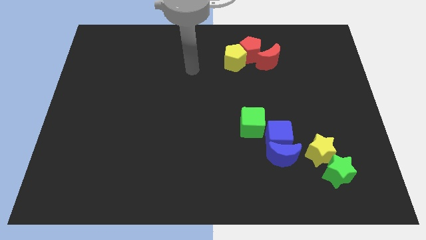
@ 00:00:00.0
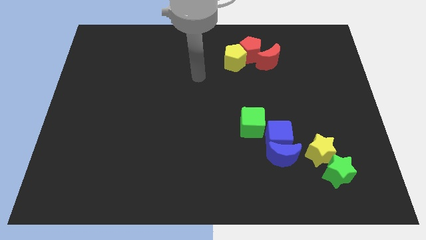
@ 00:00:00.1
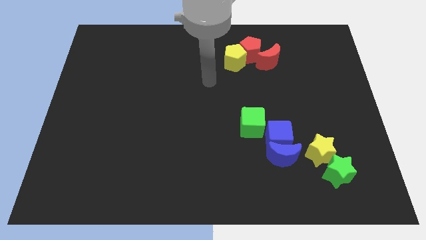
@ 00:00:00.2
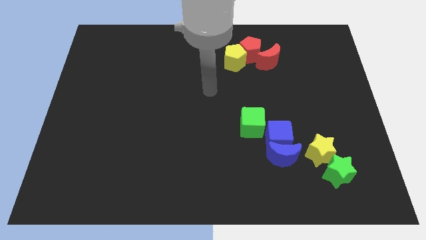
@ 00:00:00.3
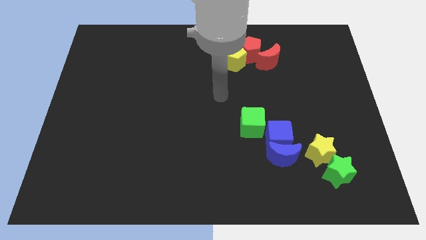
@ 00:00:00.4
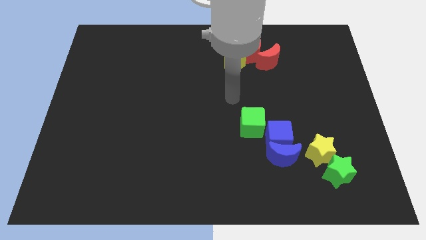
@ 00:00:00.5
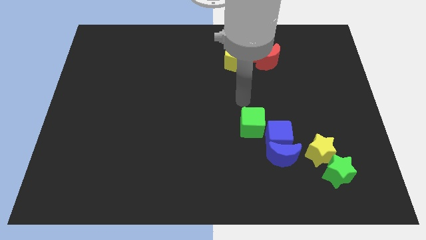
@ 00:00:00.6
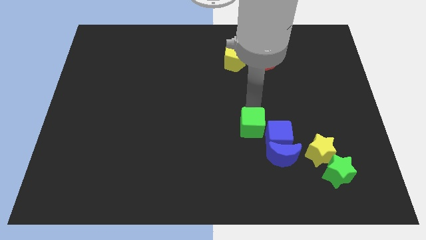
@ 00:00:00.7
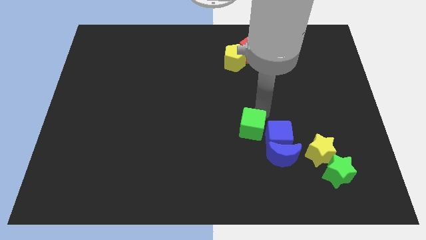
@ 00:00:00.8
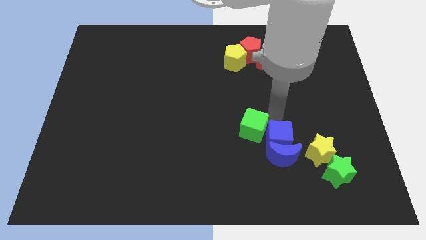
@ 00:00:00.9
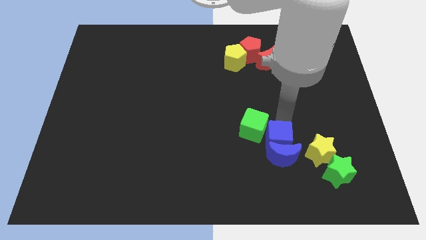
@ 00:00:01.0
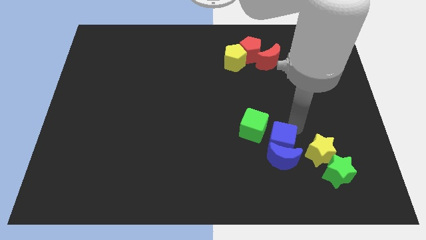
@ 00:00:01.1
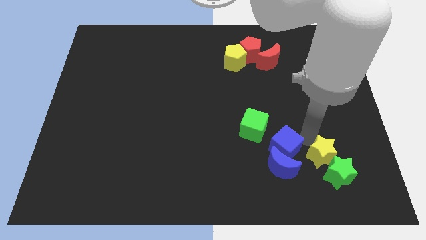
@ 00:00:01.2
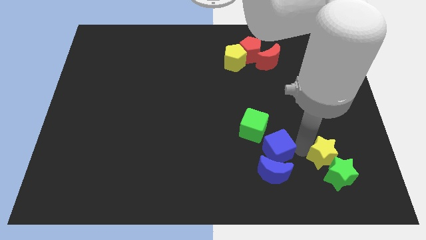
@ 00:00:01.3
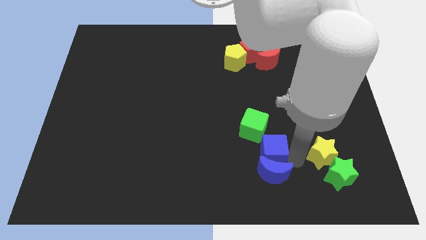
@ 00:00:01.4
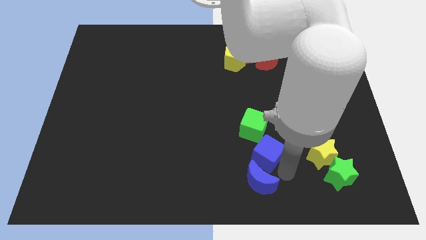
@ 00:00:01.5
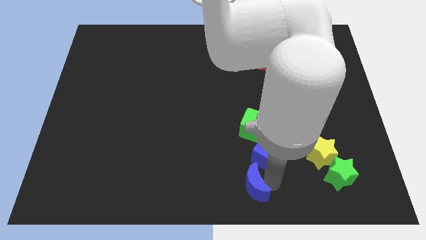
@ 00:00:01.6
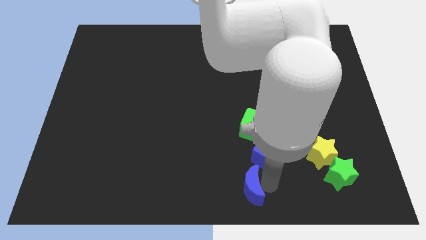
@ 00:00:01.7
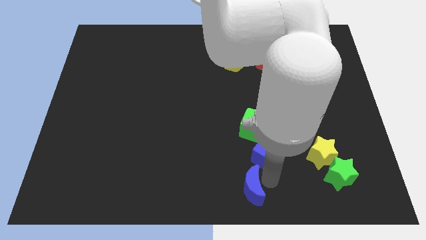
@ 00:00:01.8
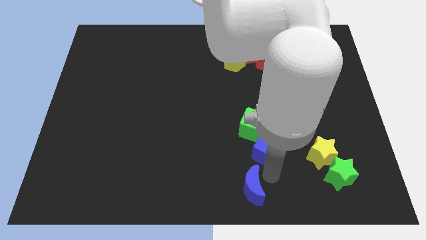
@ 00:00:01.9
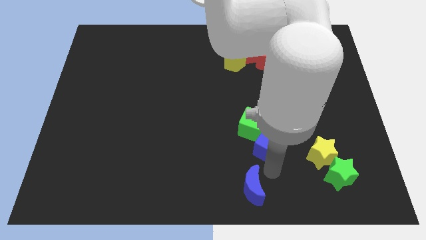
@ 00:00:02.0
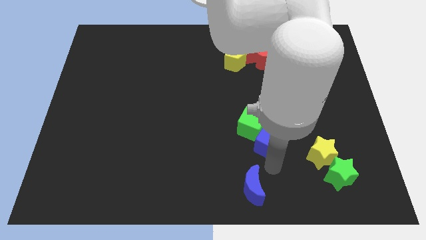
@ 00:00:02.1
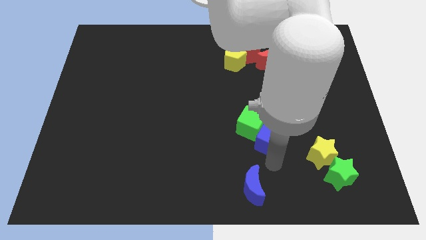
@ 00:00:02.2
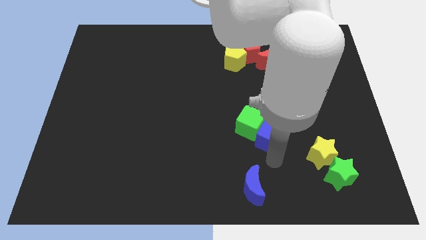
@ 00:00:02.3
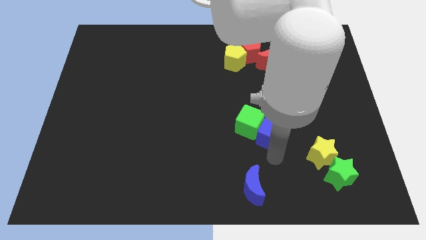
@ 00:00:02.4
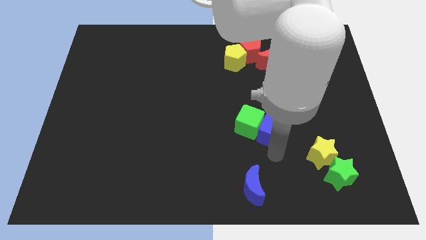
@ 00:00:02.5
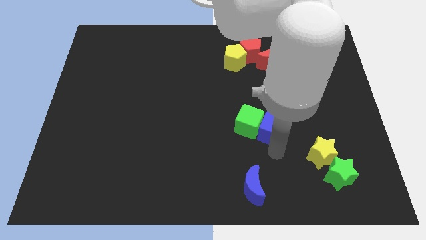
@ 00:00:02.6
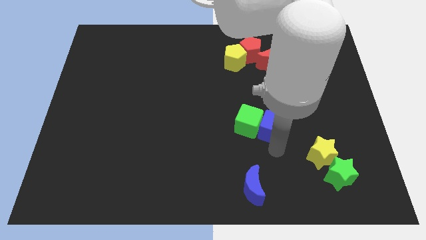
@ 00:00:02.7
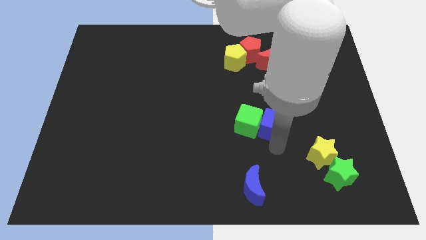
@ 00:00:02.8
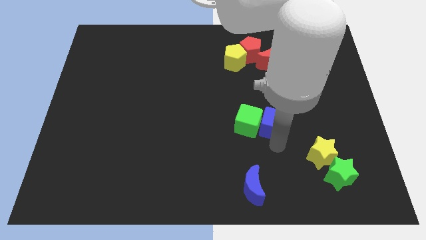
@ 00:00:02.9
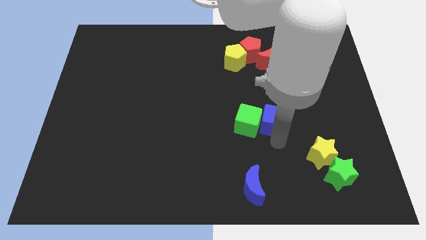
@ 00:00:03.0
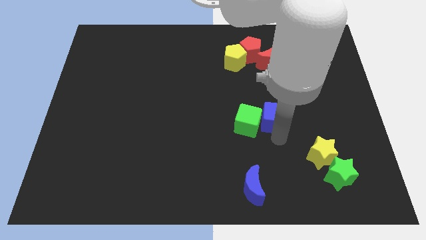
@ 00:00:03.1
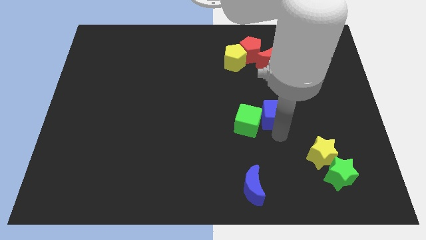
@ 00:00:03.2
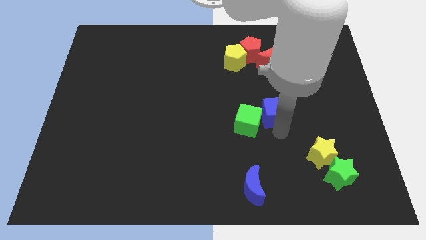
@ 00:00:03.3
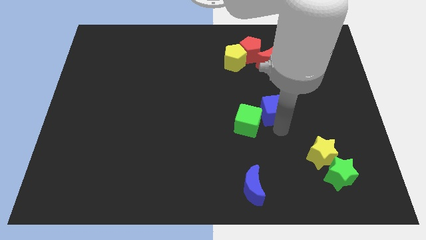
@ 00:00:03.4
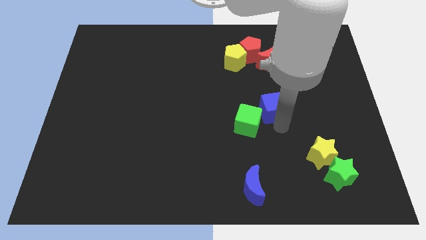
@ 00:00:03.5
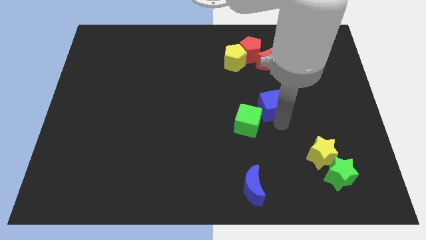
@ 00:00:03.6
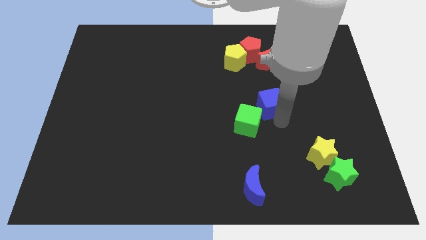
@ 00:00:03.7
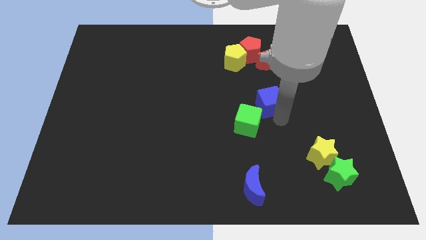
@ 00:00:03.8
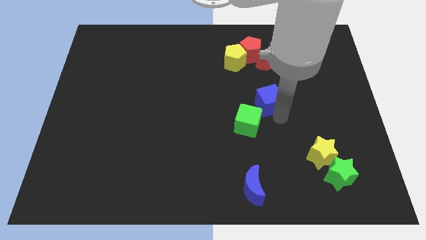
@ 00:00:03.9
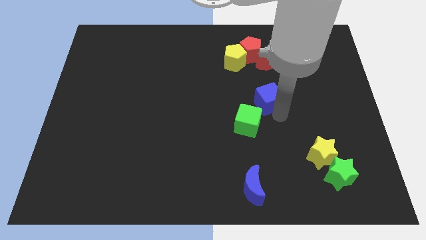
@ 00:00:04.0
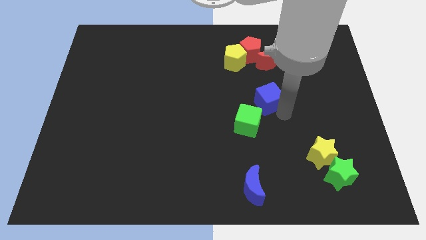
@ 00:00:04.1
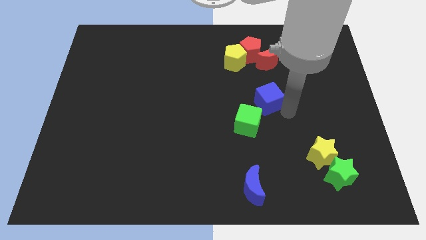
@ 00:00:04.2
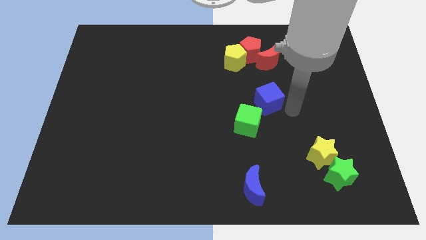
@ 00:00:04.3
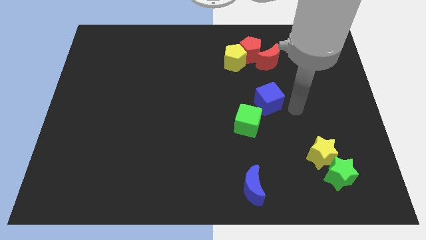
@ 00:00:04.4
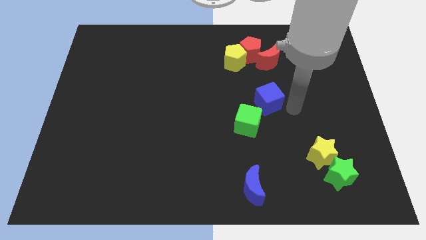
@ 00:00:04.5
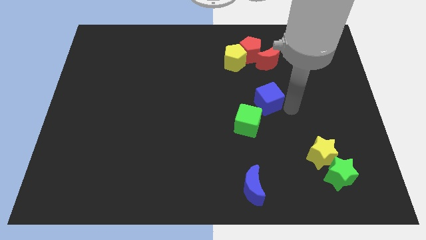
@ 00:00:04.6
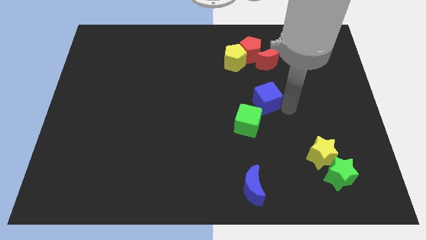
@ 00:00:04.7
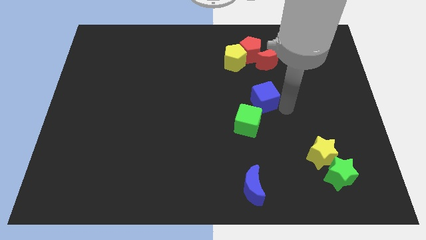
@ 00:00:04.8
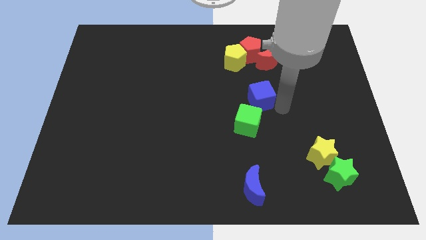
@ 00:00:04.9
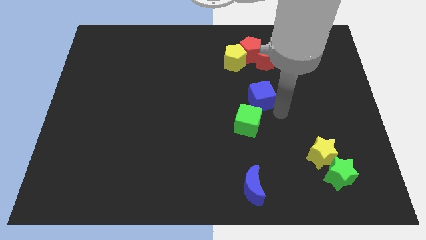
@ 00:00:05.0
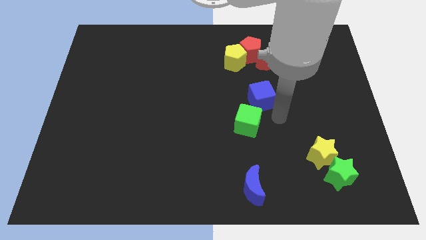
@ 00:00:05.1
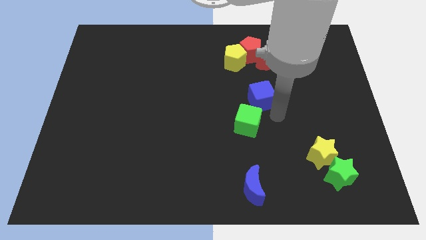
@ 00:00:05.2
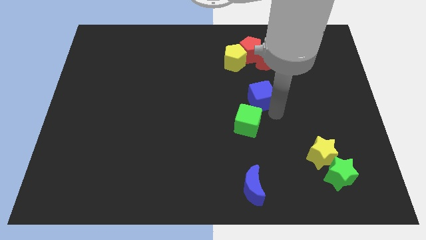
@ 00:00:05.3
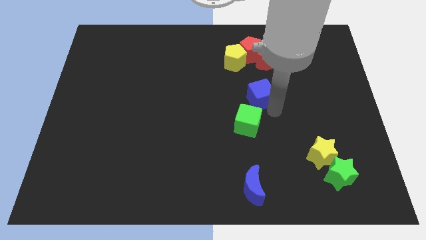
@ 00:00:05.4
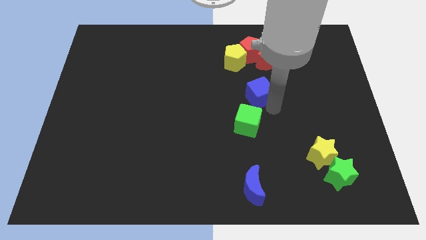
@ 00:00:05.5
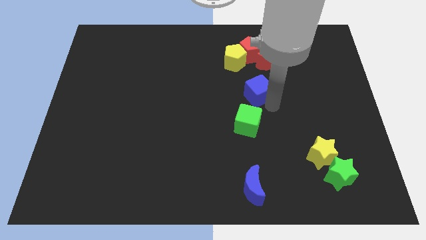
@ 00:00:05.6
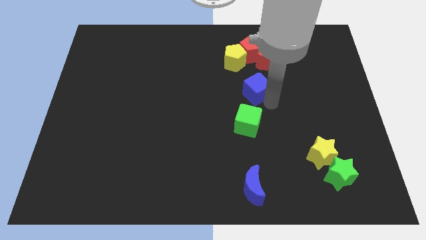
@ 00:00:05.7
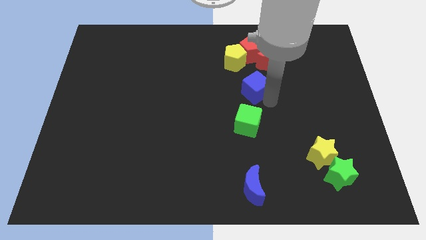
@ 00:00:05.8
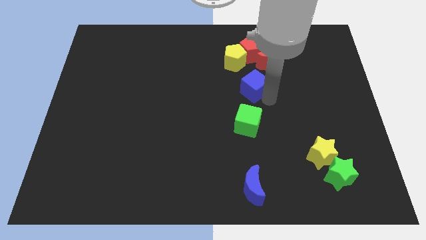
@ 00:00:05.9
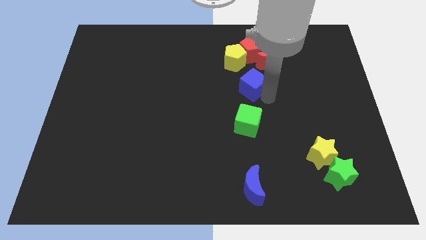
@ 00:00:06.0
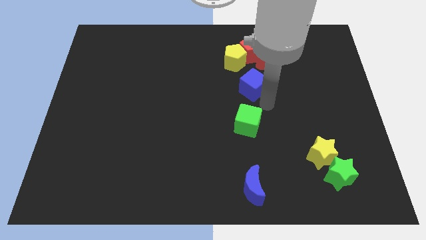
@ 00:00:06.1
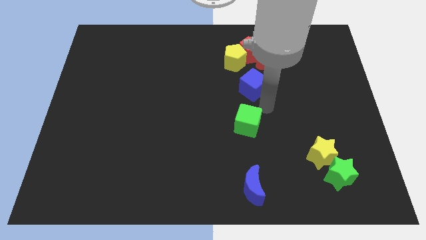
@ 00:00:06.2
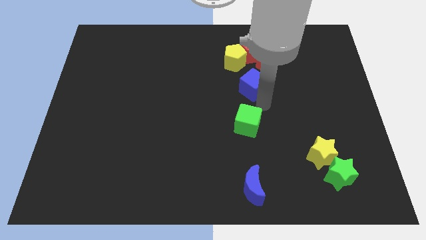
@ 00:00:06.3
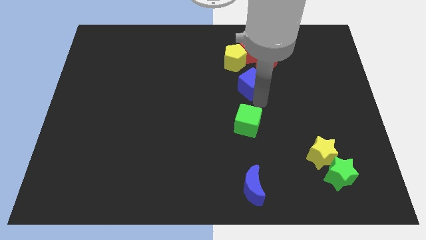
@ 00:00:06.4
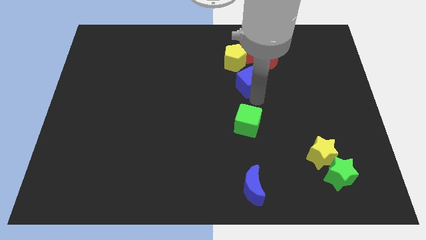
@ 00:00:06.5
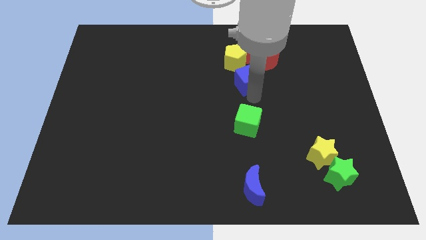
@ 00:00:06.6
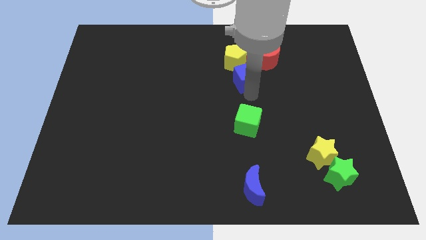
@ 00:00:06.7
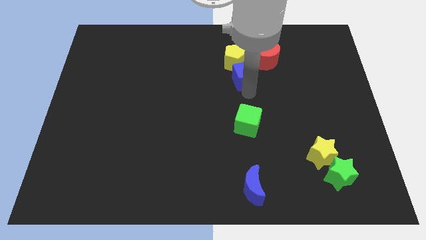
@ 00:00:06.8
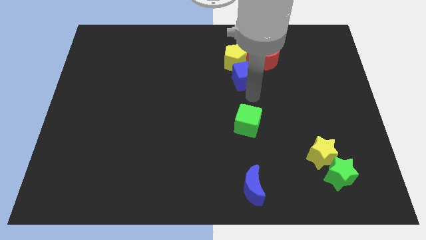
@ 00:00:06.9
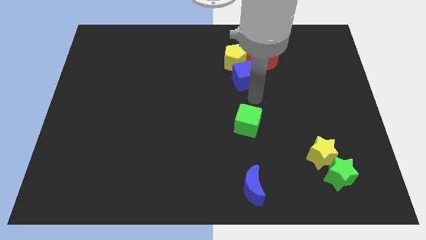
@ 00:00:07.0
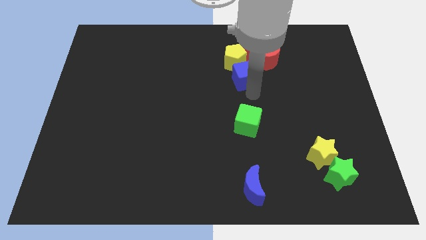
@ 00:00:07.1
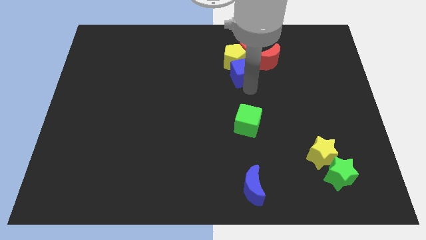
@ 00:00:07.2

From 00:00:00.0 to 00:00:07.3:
move the blue cube next to the yellow pentagon
